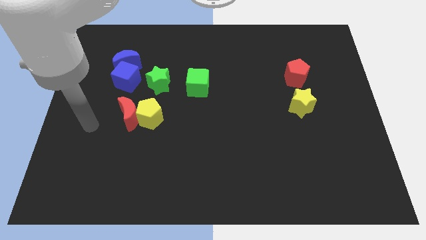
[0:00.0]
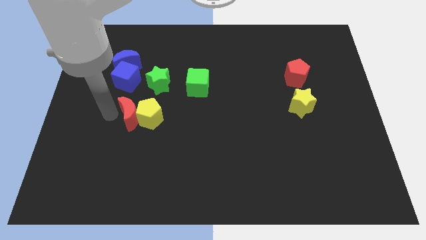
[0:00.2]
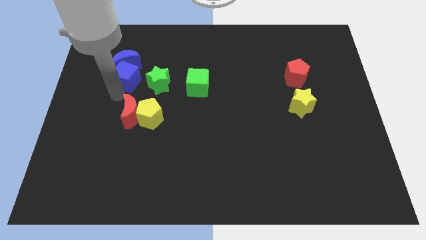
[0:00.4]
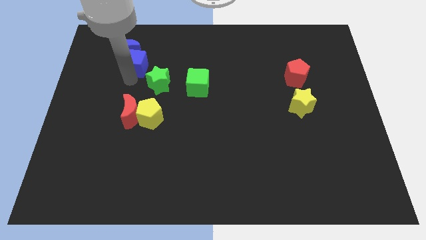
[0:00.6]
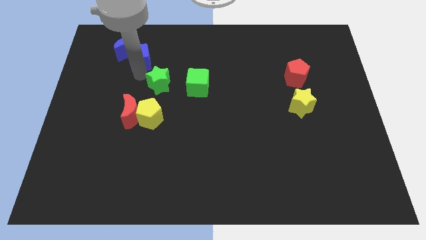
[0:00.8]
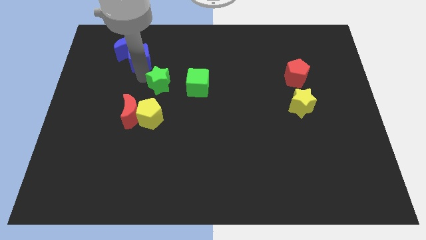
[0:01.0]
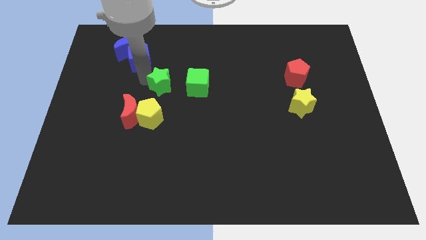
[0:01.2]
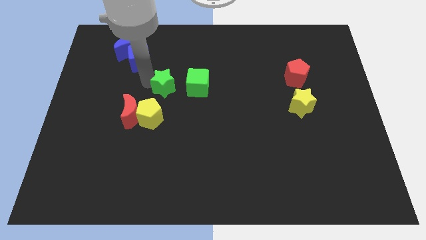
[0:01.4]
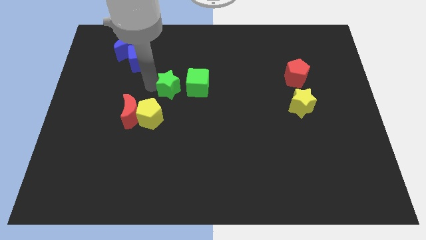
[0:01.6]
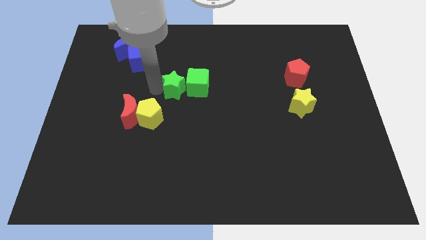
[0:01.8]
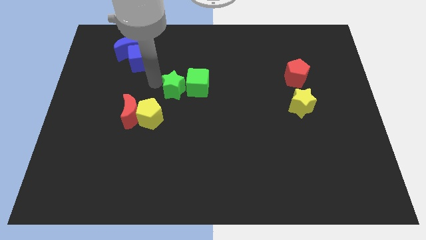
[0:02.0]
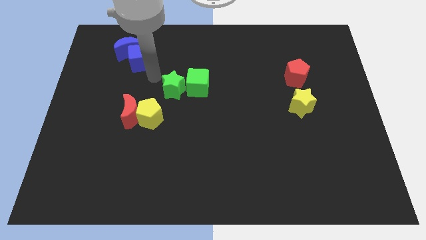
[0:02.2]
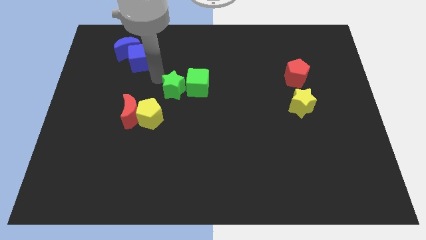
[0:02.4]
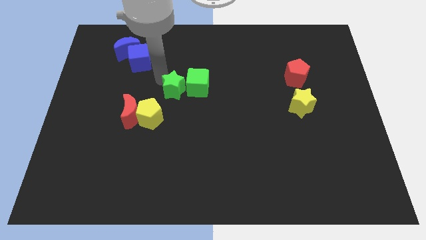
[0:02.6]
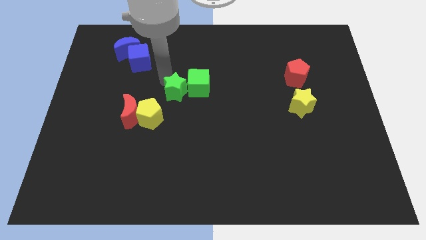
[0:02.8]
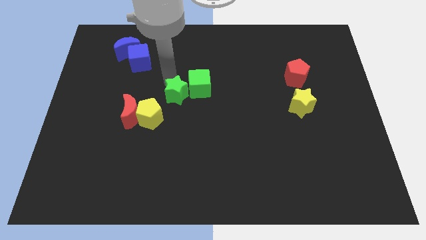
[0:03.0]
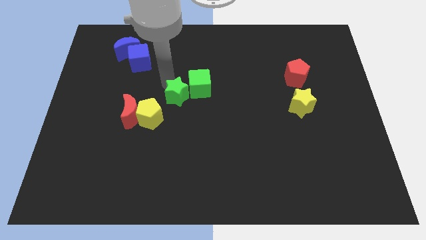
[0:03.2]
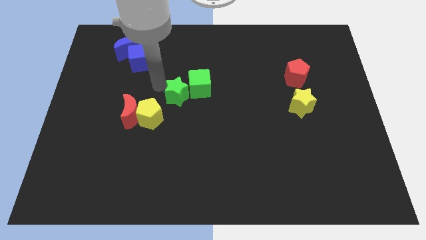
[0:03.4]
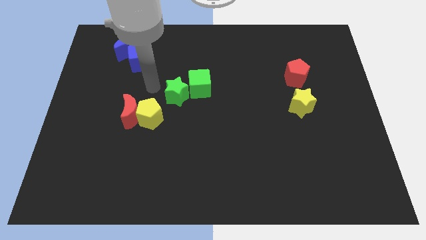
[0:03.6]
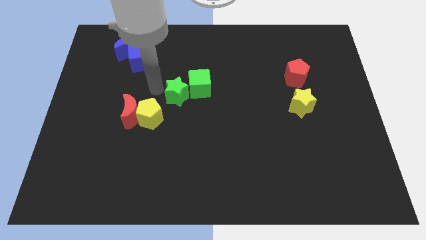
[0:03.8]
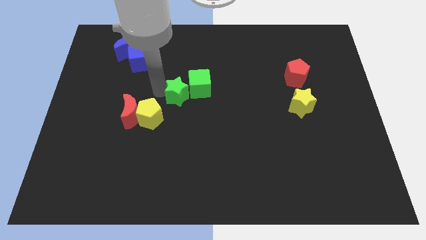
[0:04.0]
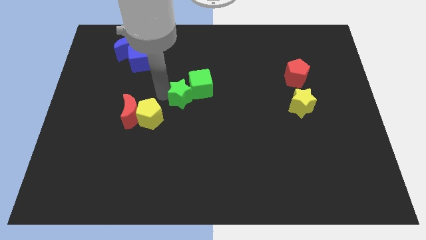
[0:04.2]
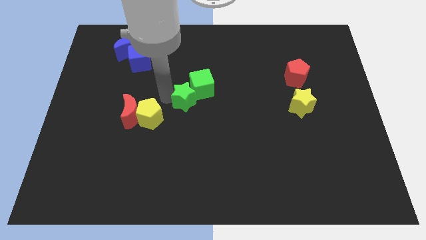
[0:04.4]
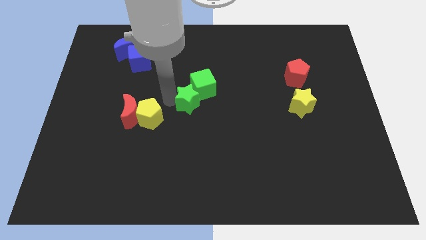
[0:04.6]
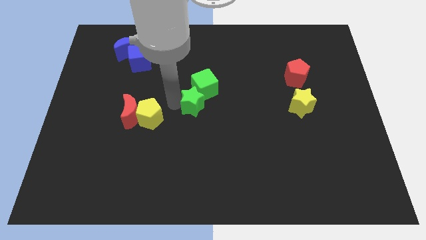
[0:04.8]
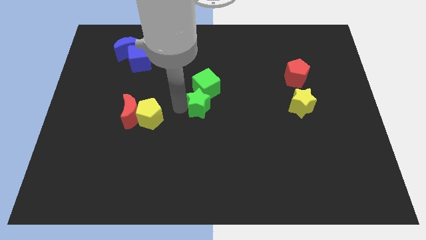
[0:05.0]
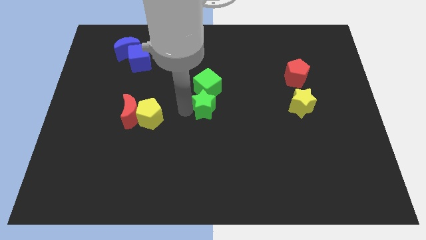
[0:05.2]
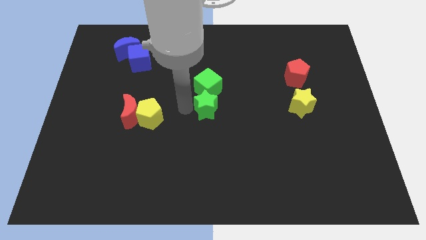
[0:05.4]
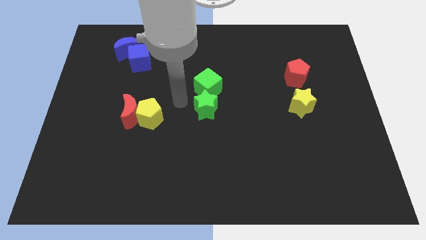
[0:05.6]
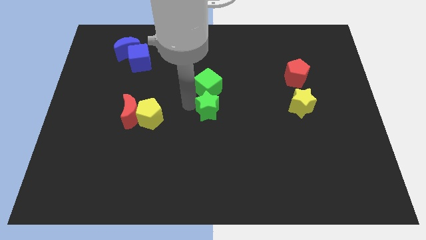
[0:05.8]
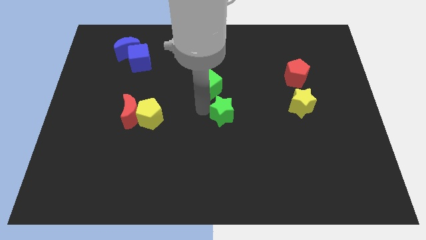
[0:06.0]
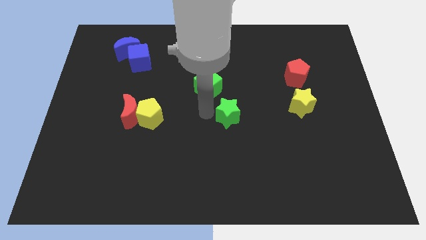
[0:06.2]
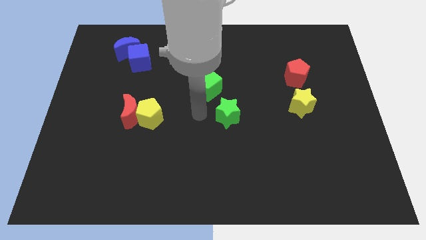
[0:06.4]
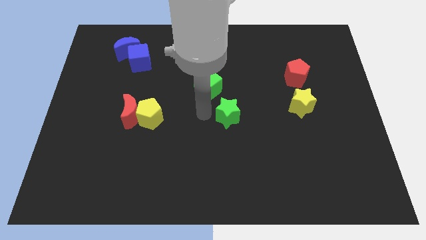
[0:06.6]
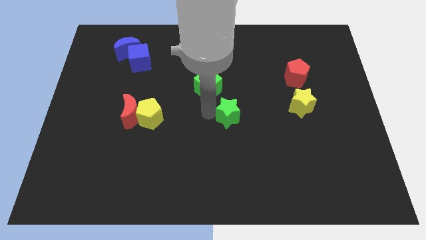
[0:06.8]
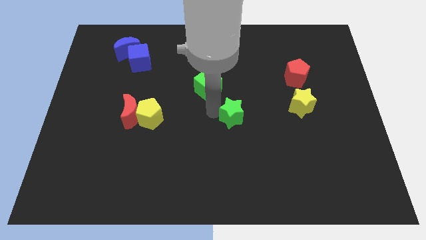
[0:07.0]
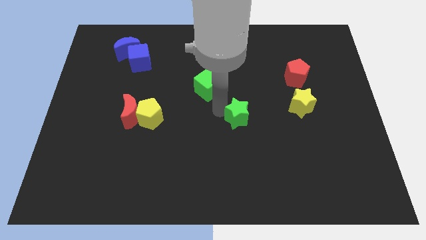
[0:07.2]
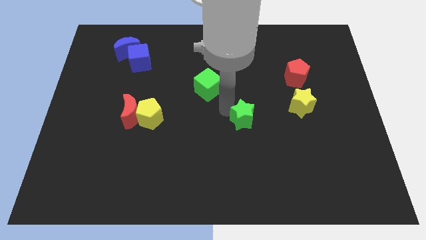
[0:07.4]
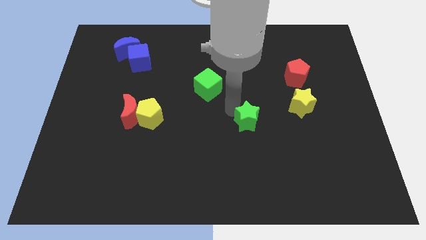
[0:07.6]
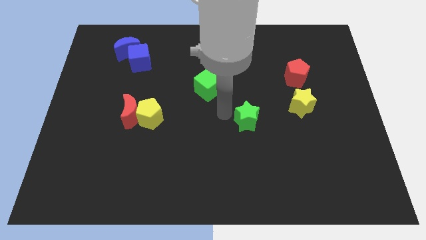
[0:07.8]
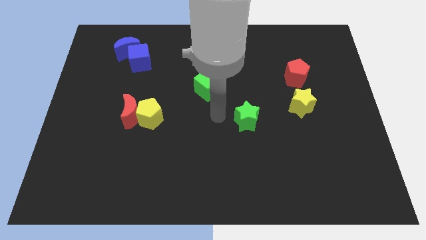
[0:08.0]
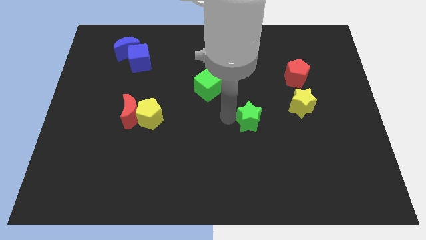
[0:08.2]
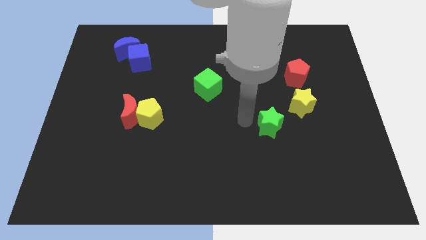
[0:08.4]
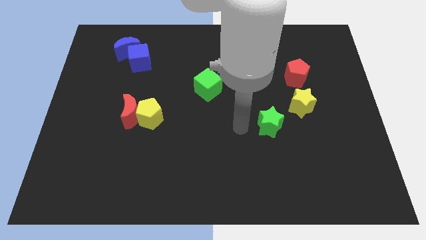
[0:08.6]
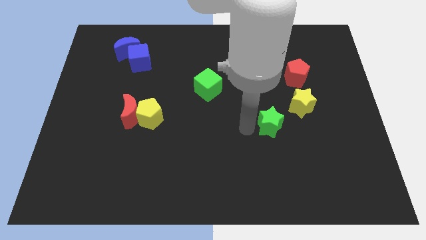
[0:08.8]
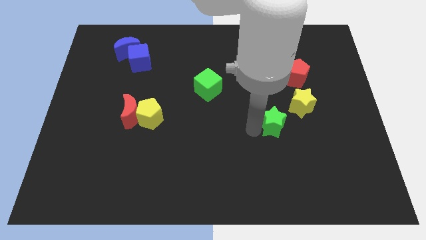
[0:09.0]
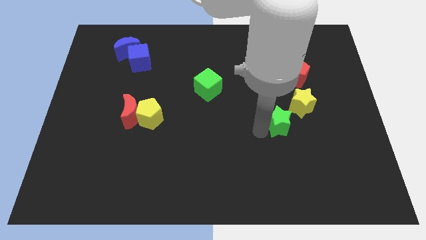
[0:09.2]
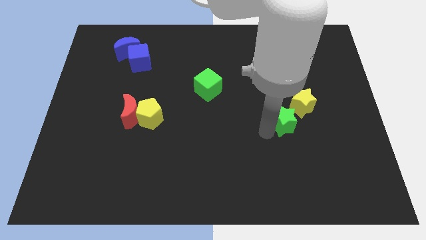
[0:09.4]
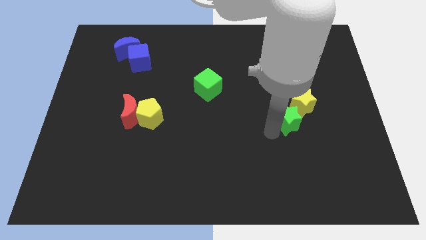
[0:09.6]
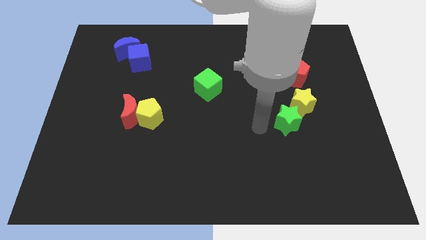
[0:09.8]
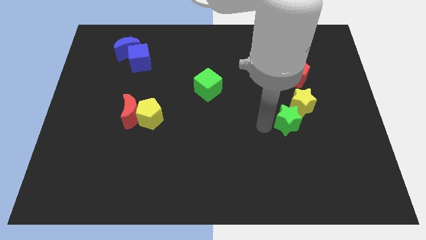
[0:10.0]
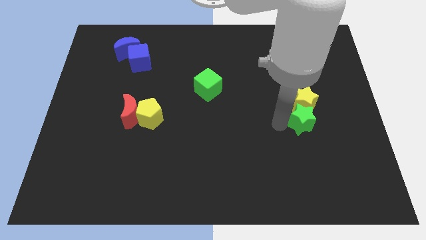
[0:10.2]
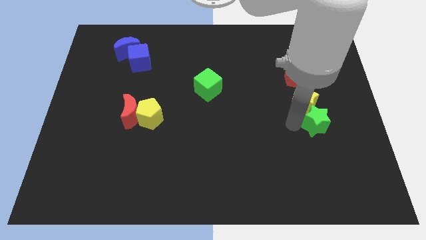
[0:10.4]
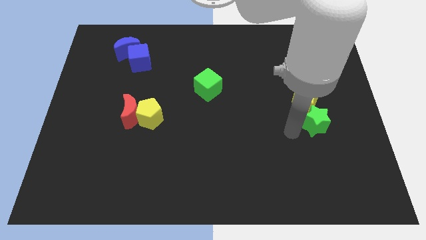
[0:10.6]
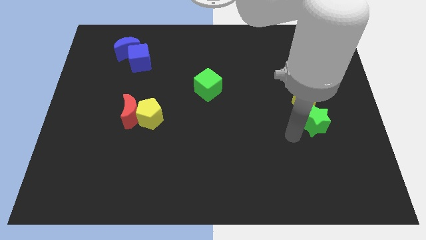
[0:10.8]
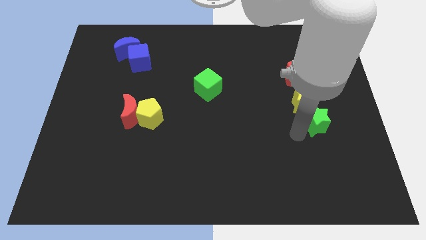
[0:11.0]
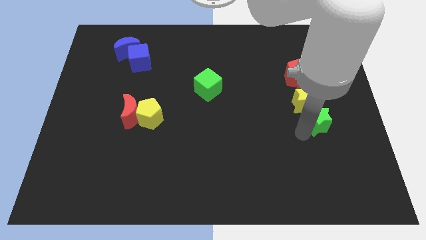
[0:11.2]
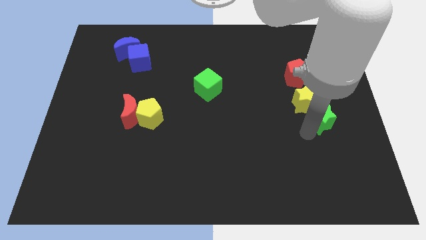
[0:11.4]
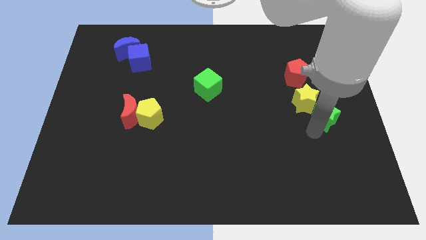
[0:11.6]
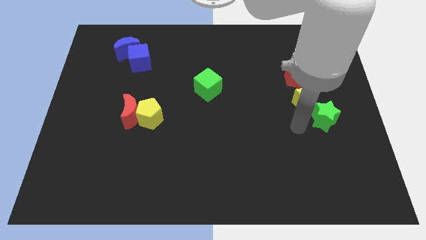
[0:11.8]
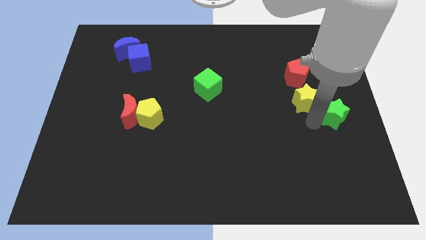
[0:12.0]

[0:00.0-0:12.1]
put the green star to the center right

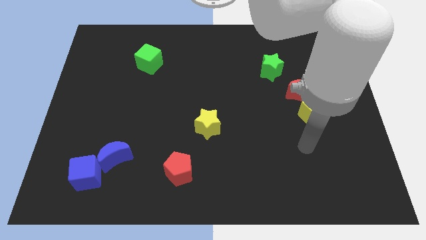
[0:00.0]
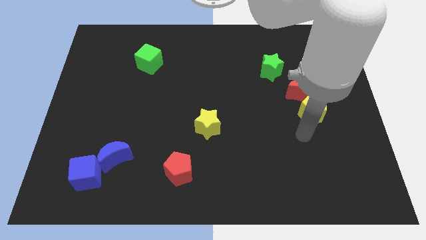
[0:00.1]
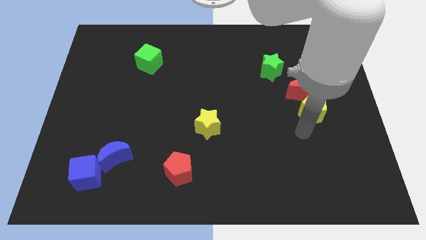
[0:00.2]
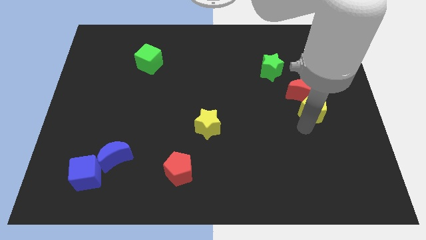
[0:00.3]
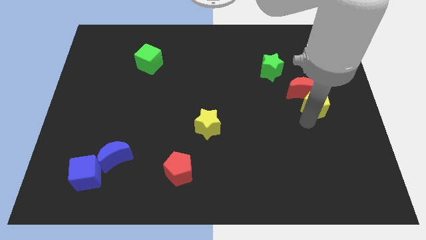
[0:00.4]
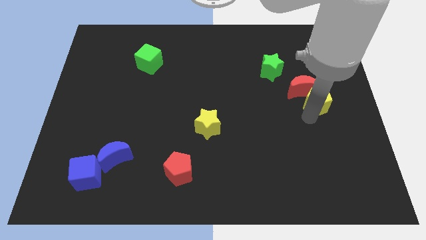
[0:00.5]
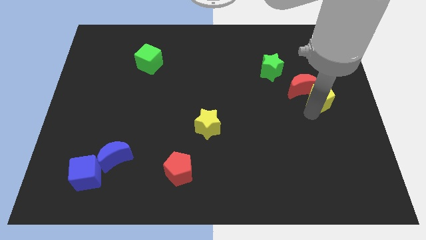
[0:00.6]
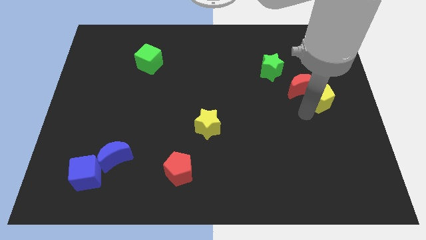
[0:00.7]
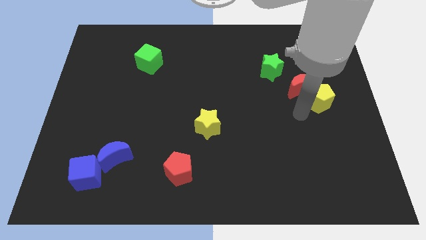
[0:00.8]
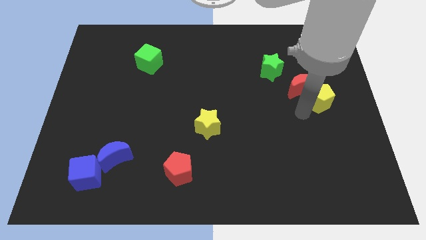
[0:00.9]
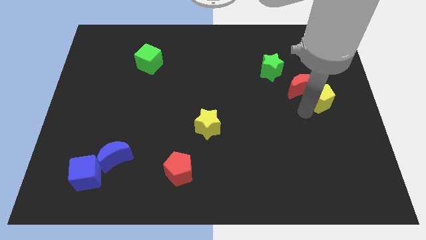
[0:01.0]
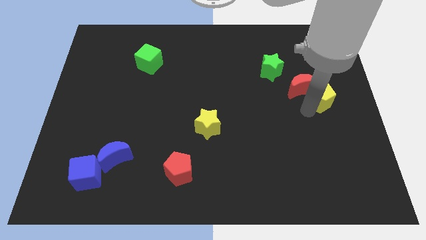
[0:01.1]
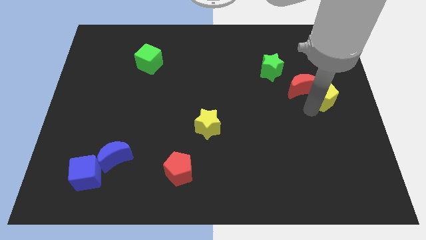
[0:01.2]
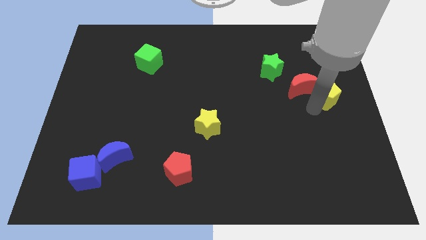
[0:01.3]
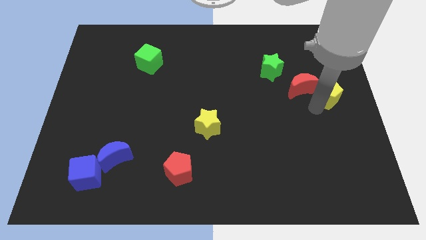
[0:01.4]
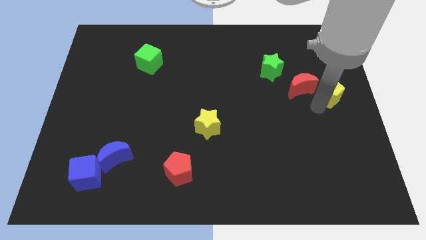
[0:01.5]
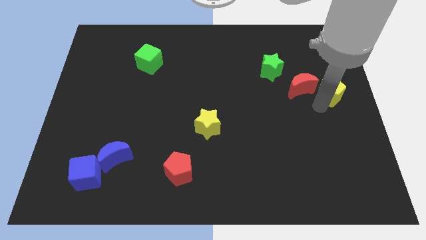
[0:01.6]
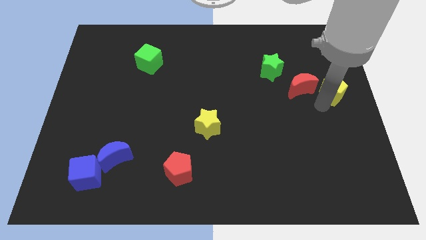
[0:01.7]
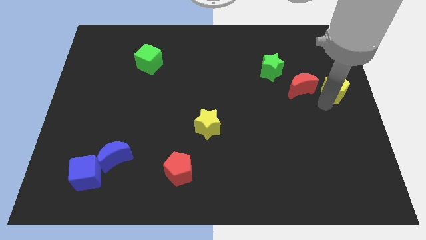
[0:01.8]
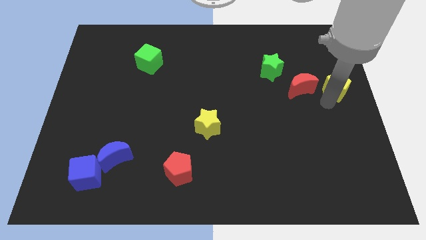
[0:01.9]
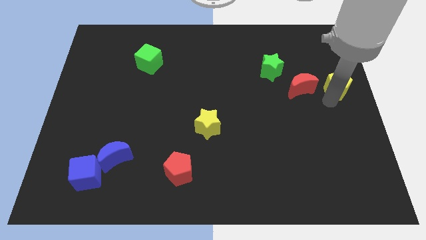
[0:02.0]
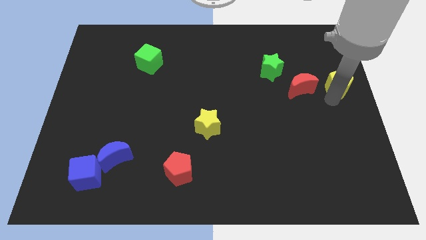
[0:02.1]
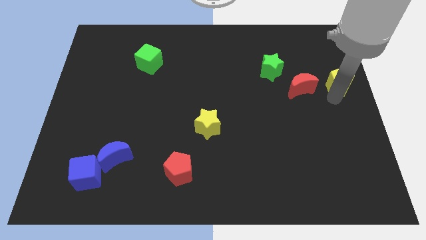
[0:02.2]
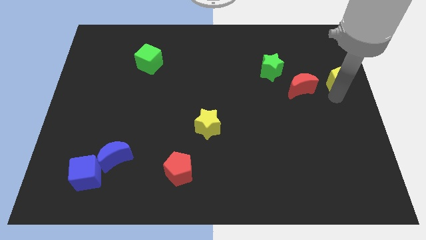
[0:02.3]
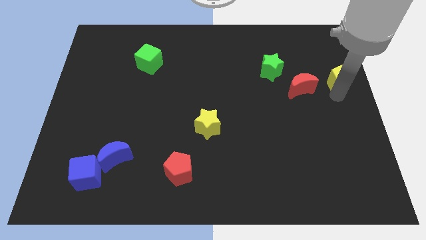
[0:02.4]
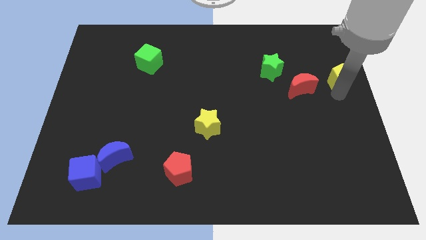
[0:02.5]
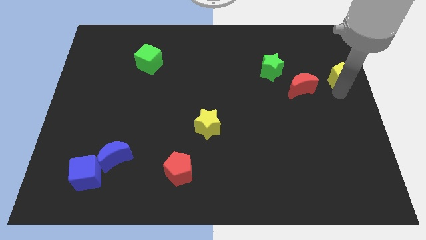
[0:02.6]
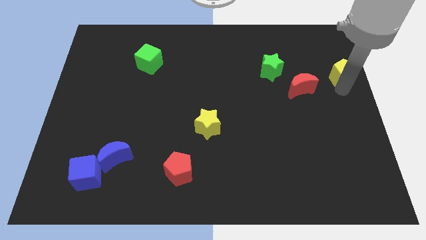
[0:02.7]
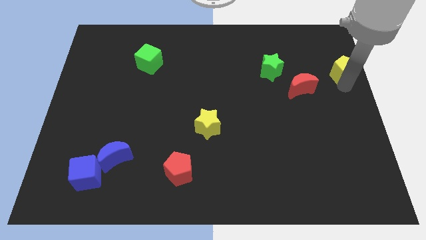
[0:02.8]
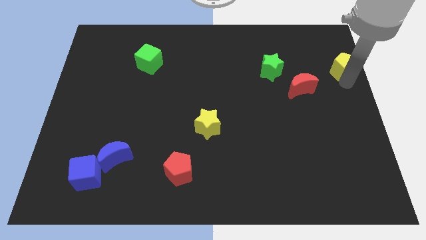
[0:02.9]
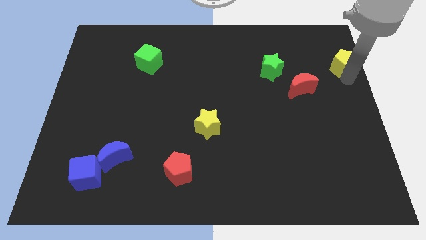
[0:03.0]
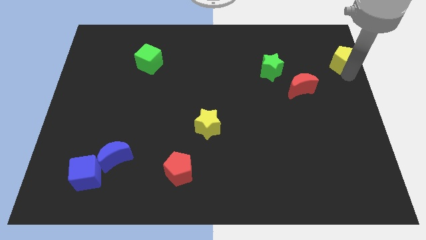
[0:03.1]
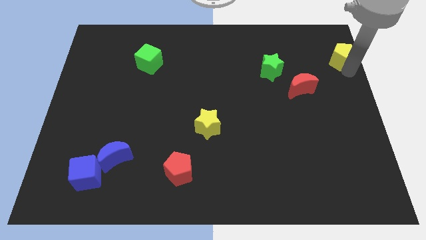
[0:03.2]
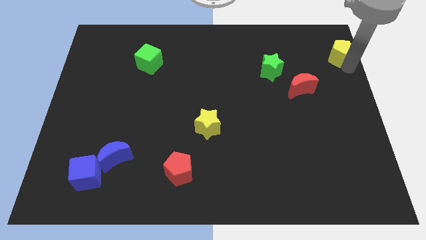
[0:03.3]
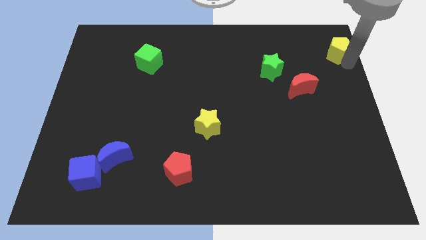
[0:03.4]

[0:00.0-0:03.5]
push the yellow pentagon to the top right
